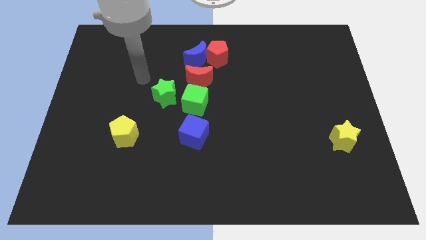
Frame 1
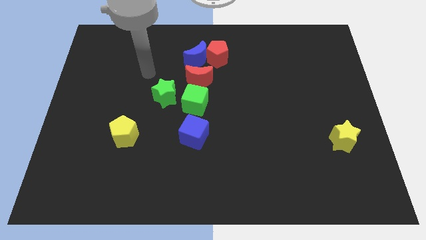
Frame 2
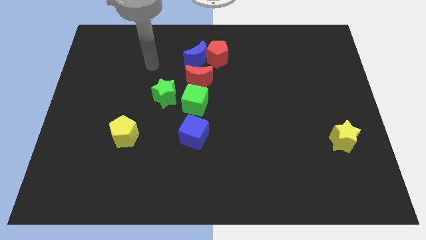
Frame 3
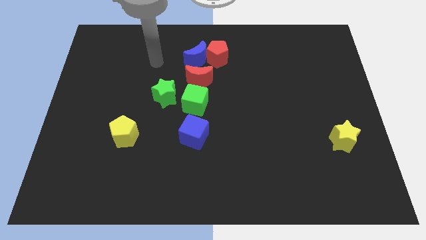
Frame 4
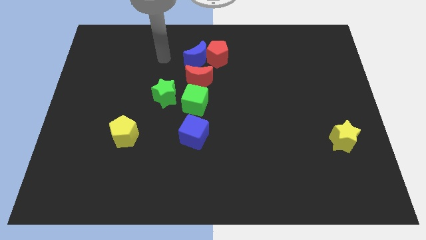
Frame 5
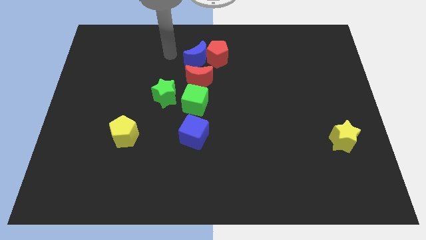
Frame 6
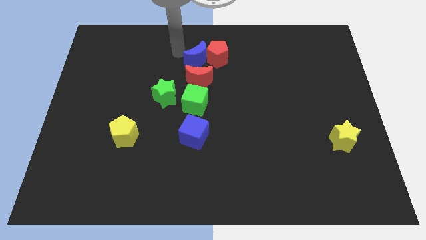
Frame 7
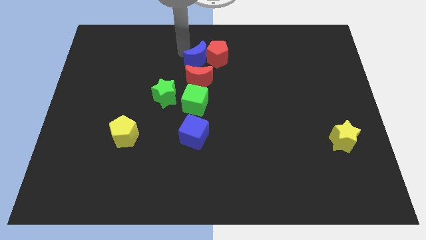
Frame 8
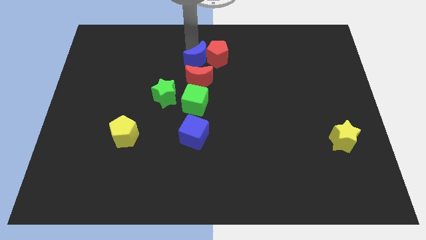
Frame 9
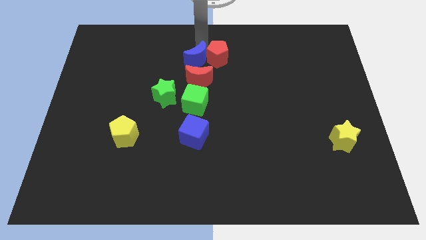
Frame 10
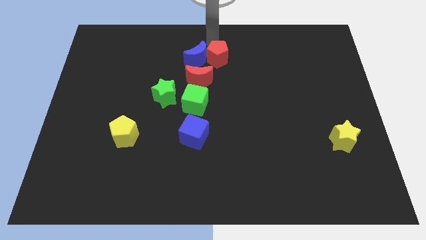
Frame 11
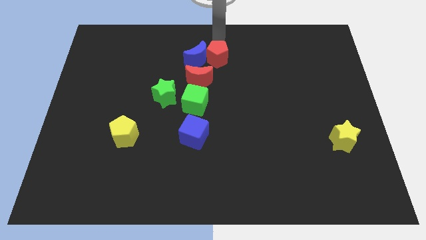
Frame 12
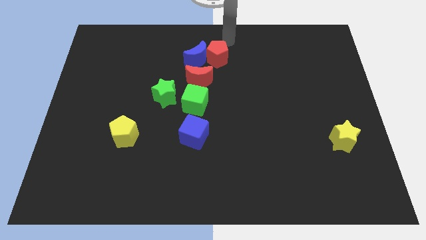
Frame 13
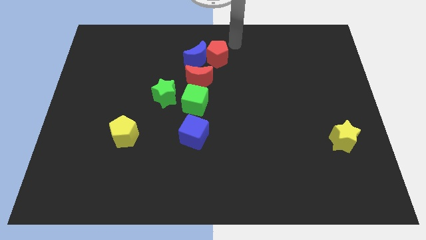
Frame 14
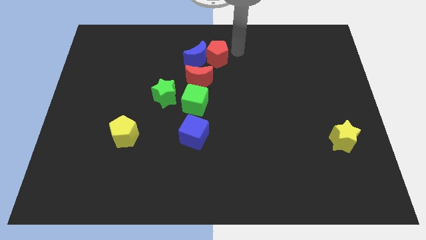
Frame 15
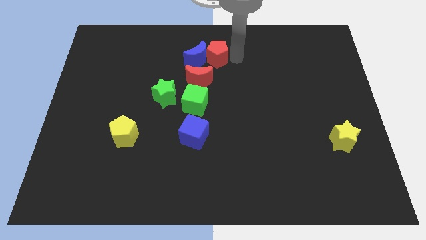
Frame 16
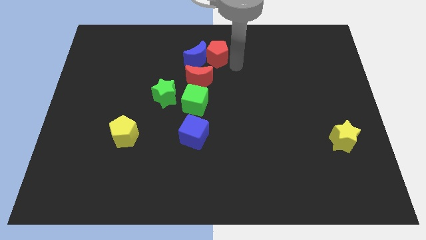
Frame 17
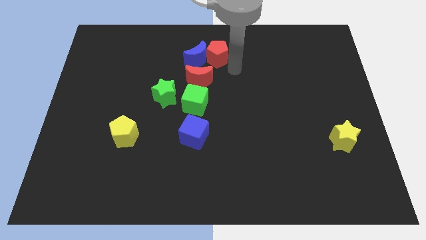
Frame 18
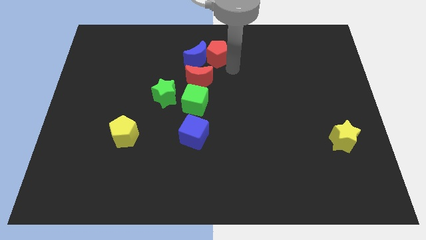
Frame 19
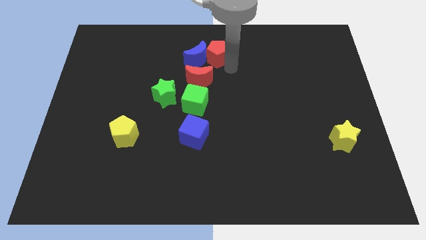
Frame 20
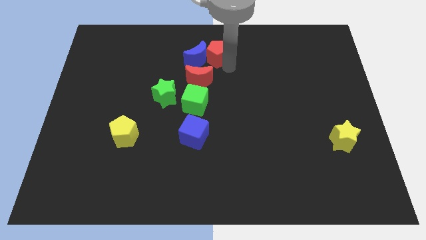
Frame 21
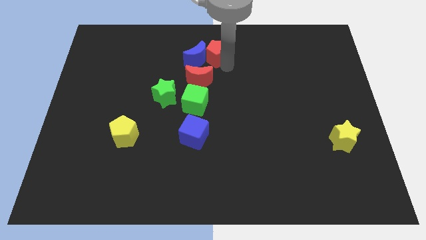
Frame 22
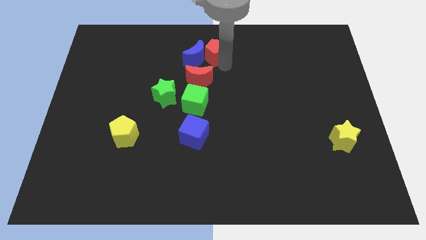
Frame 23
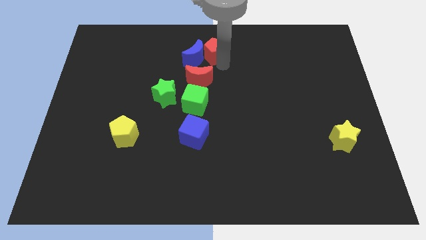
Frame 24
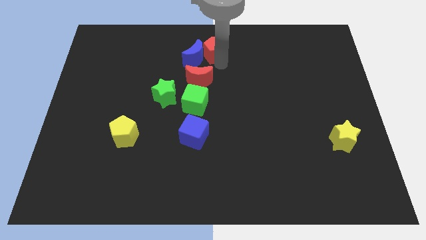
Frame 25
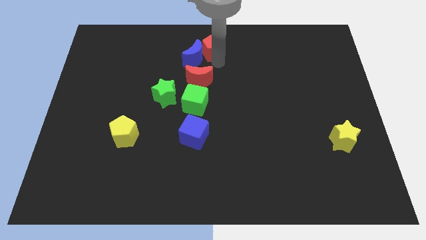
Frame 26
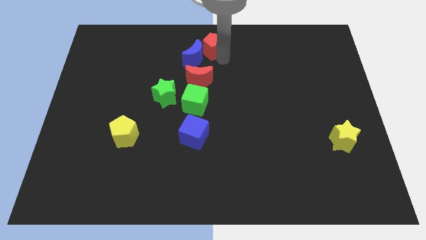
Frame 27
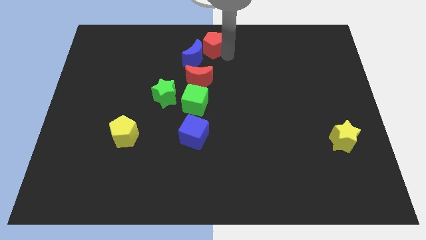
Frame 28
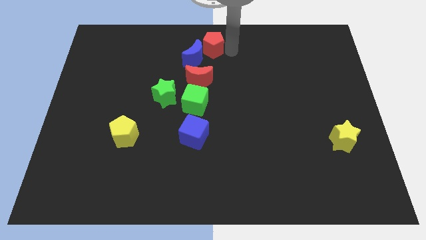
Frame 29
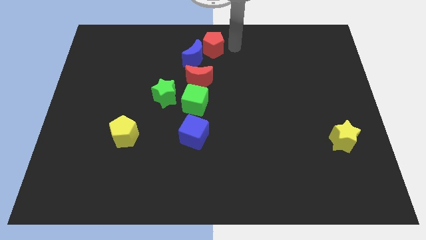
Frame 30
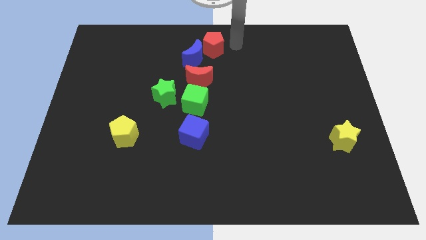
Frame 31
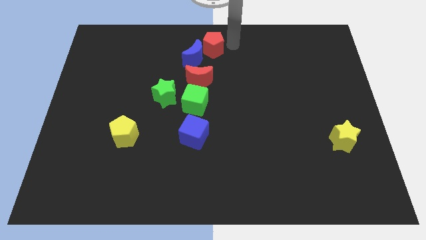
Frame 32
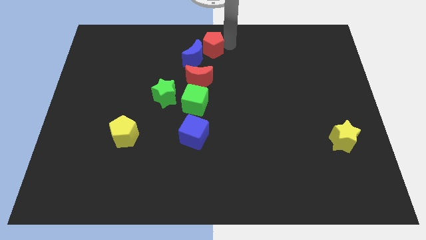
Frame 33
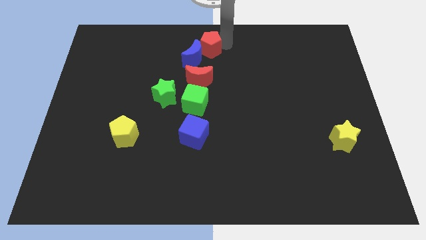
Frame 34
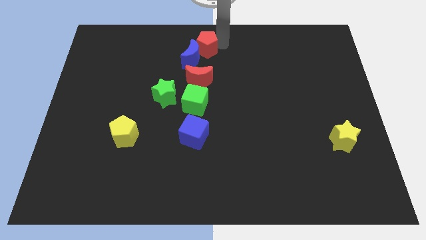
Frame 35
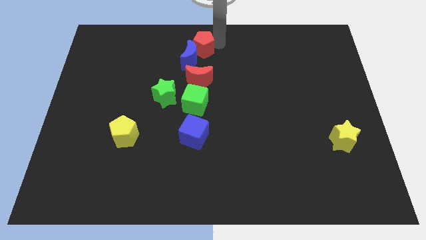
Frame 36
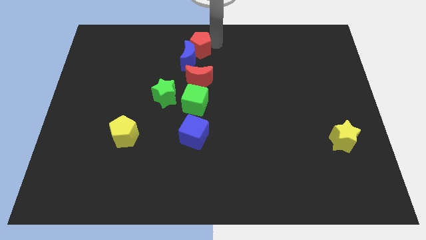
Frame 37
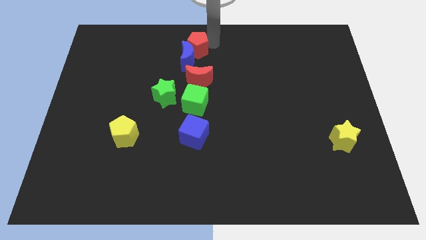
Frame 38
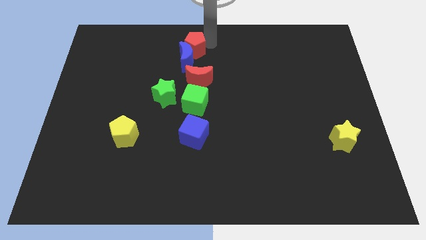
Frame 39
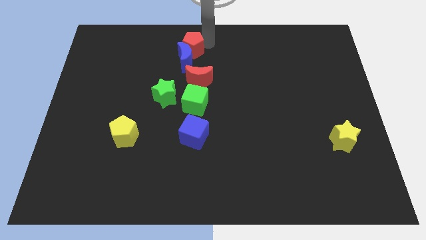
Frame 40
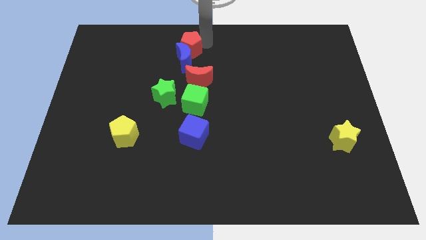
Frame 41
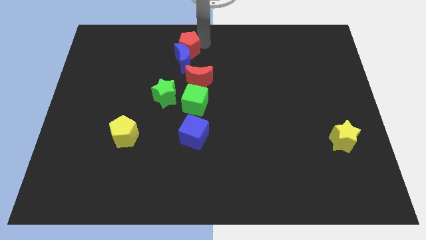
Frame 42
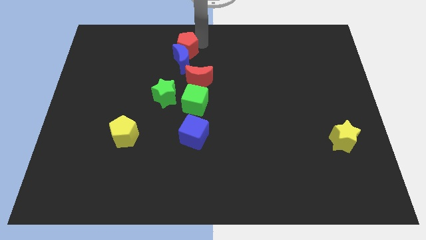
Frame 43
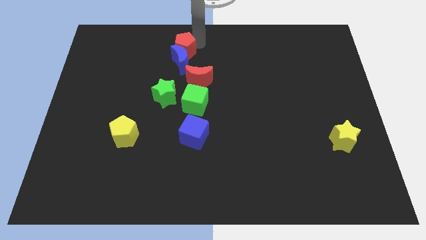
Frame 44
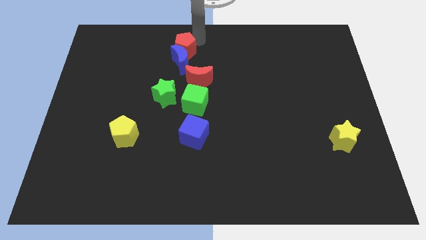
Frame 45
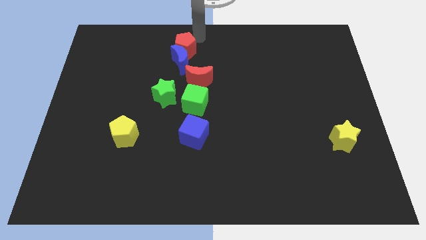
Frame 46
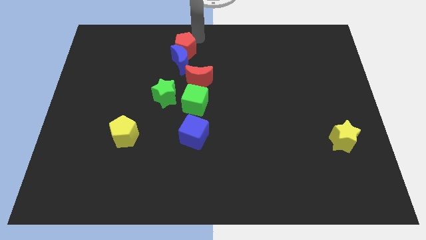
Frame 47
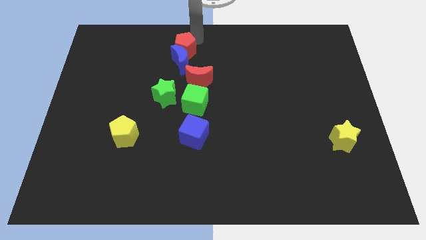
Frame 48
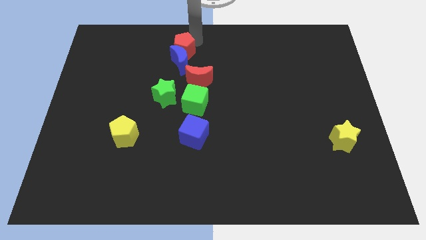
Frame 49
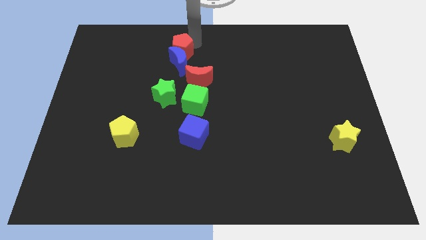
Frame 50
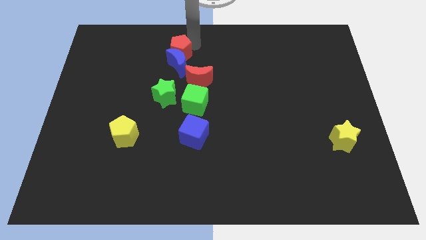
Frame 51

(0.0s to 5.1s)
slide the red pentagon to the top of the green star

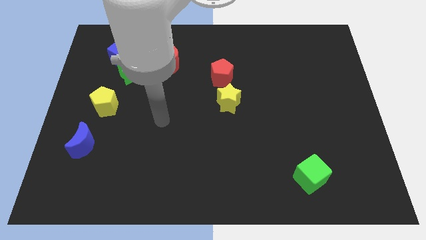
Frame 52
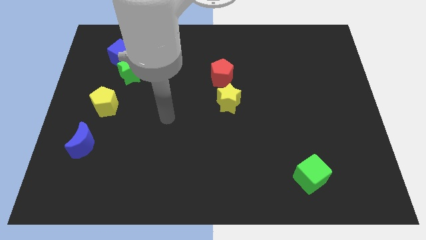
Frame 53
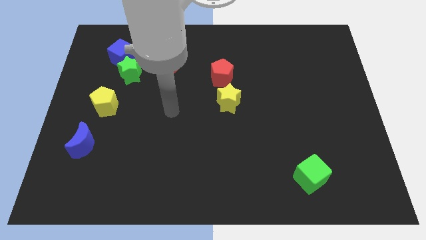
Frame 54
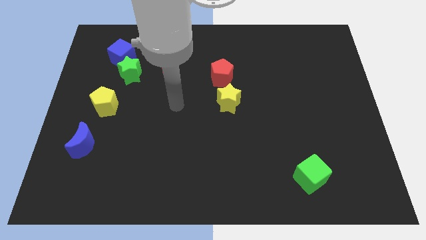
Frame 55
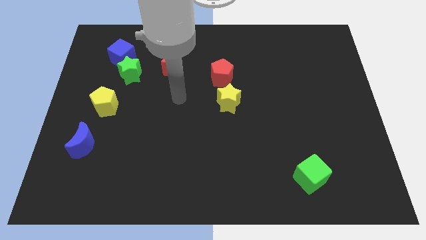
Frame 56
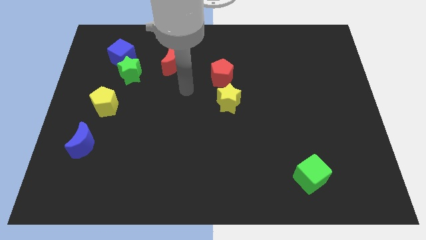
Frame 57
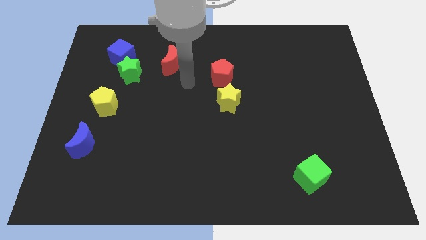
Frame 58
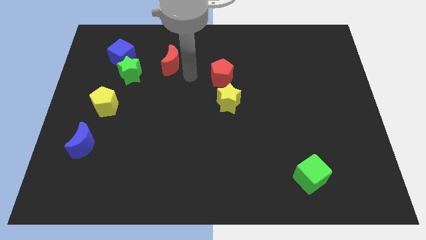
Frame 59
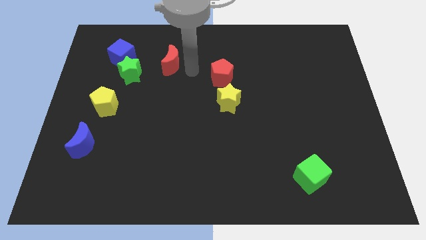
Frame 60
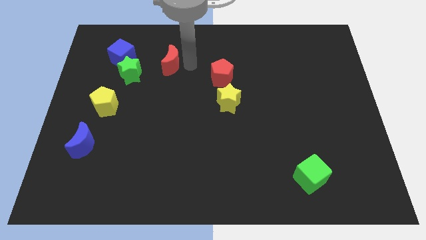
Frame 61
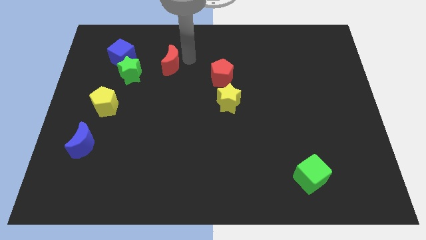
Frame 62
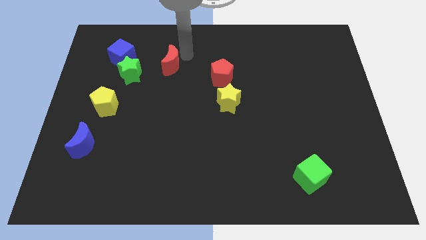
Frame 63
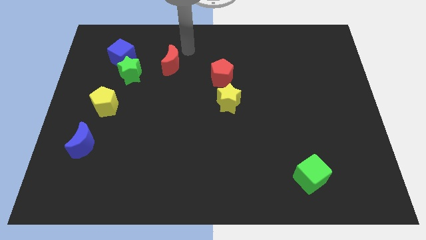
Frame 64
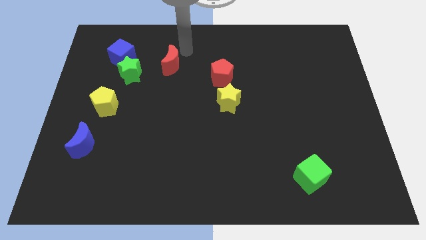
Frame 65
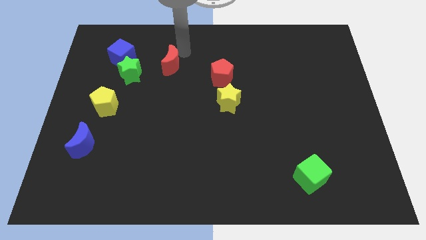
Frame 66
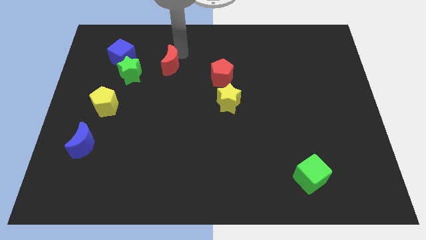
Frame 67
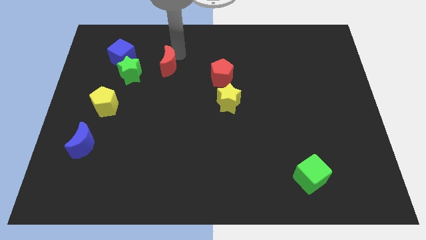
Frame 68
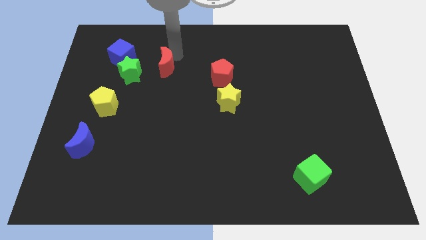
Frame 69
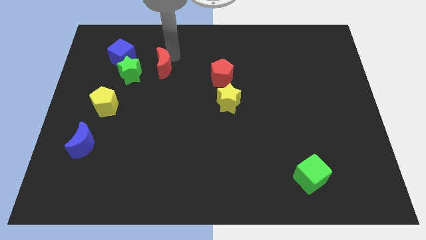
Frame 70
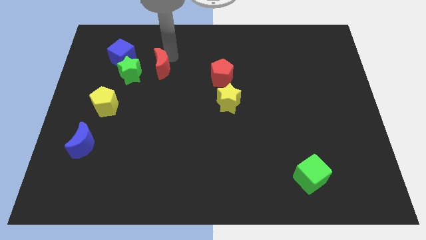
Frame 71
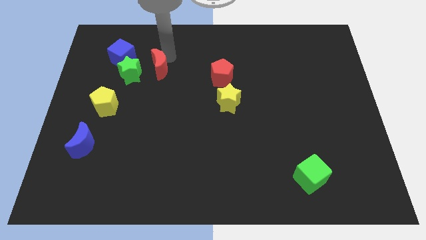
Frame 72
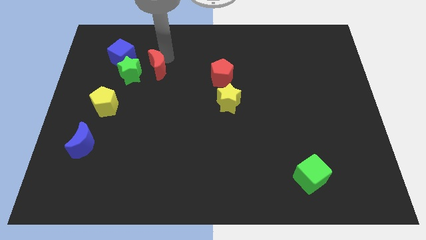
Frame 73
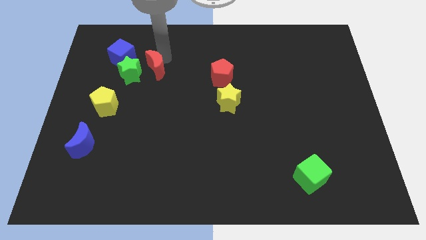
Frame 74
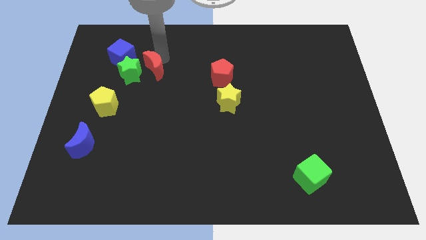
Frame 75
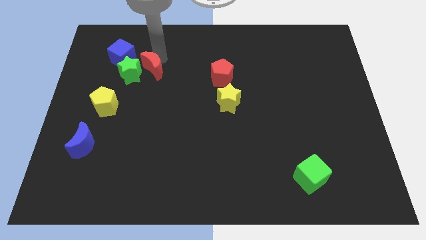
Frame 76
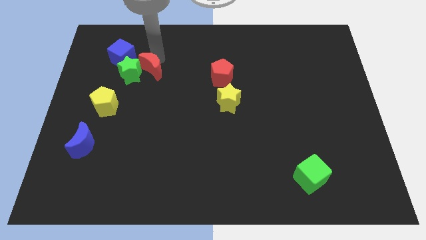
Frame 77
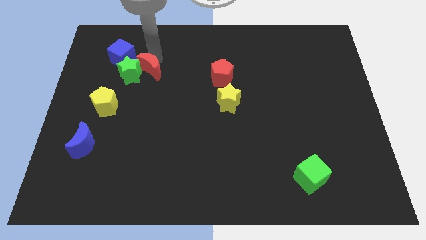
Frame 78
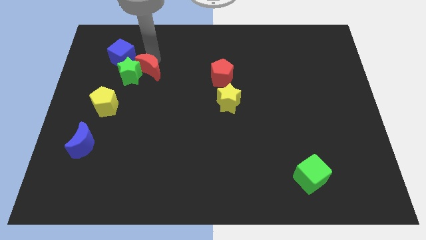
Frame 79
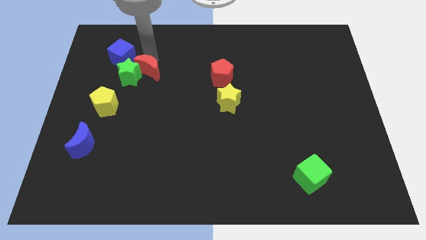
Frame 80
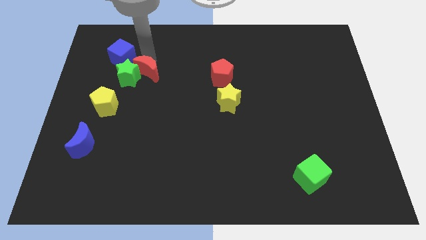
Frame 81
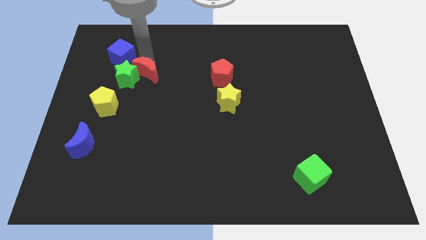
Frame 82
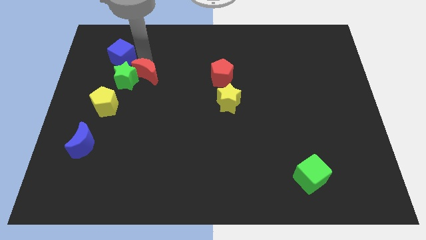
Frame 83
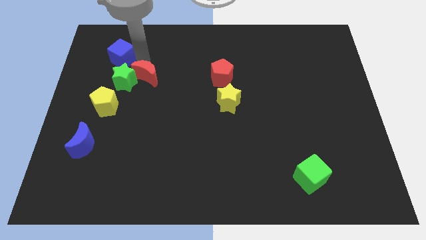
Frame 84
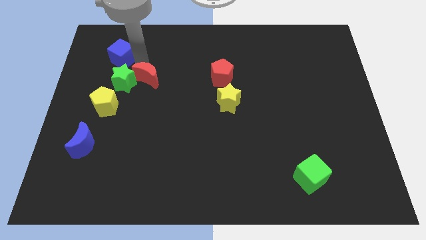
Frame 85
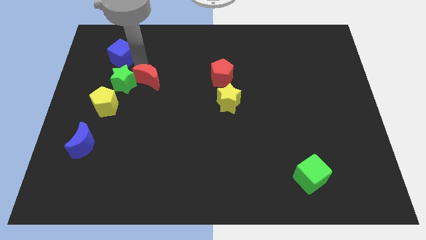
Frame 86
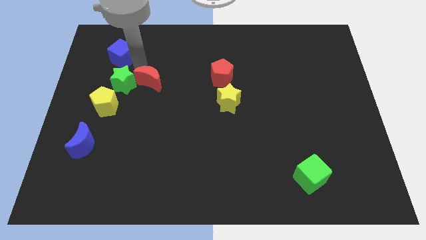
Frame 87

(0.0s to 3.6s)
move the red moon to the bottom right of the green star
